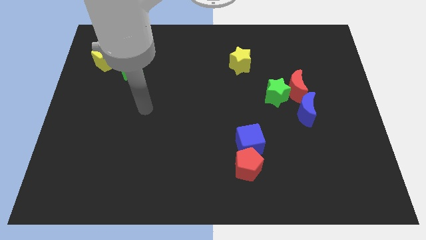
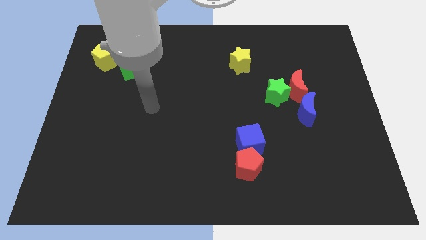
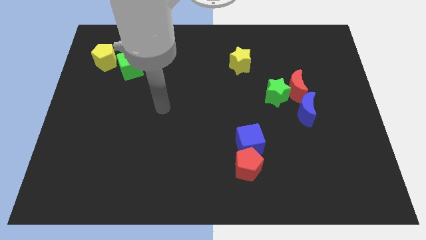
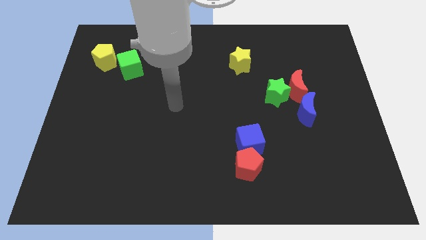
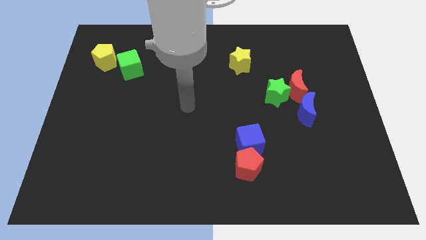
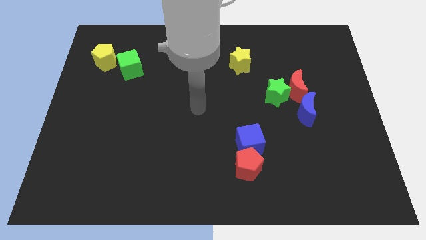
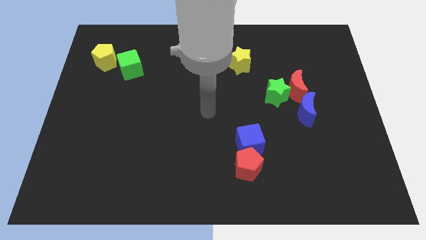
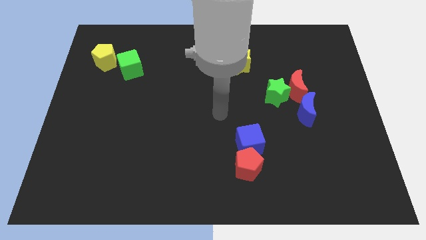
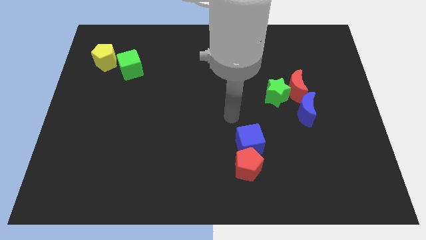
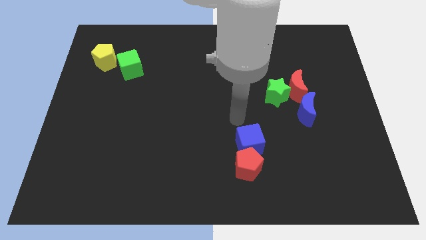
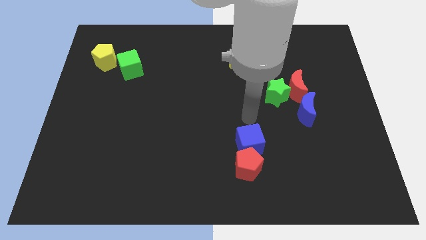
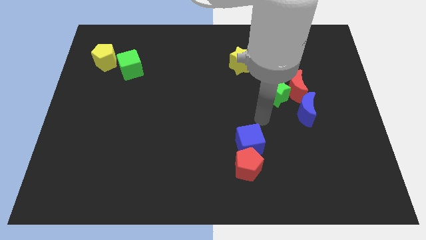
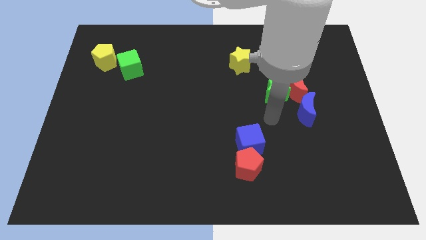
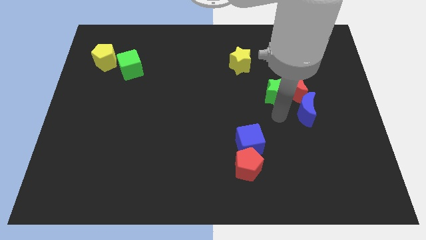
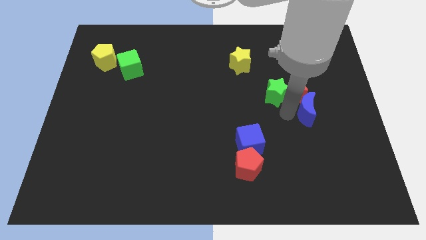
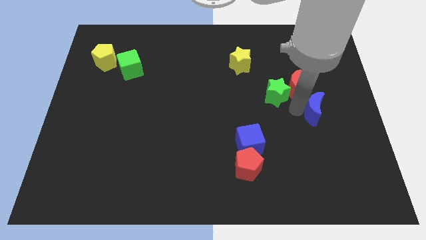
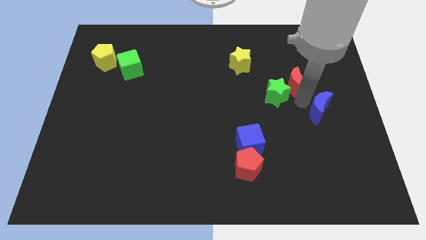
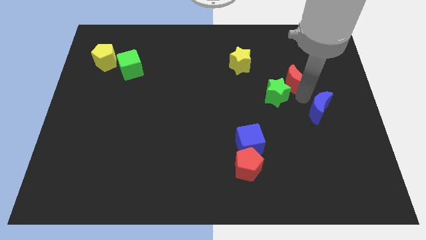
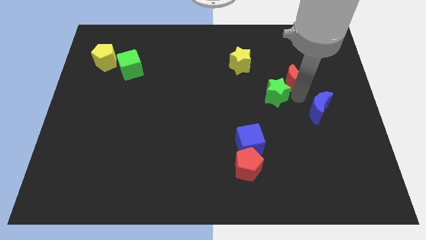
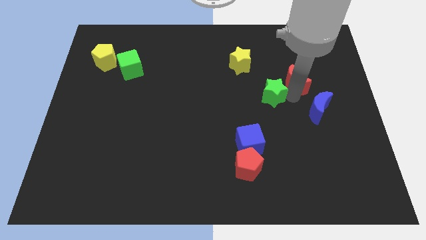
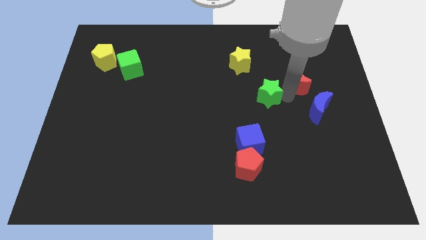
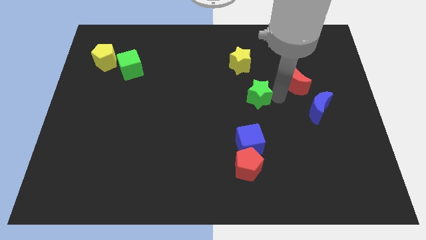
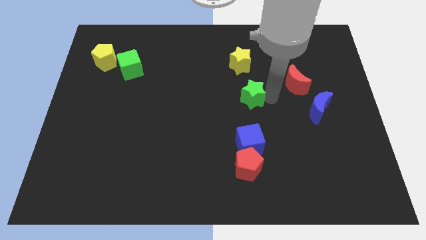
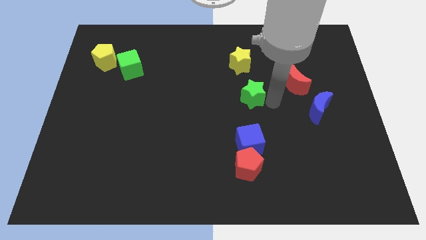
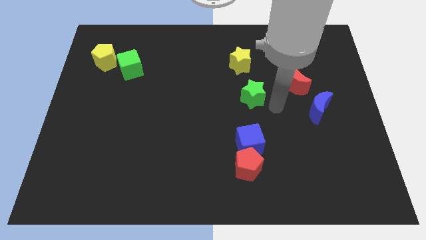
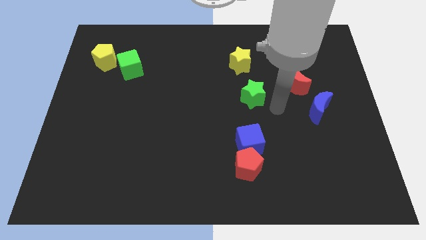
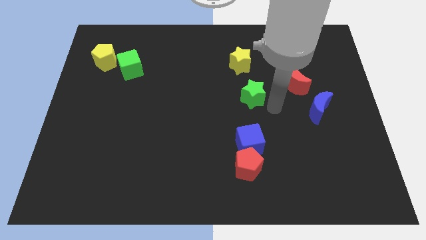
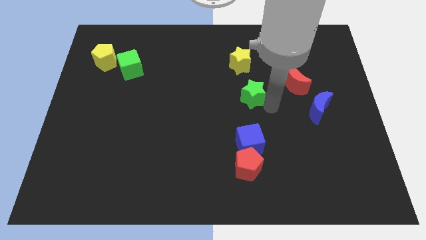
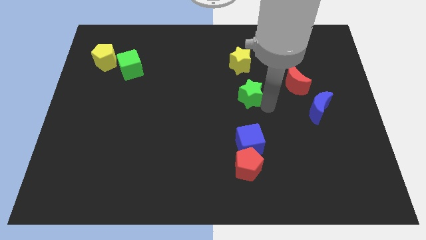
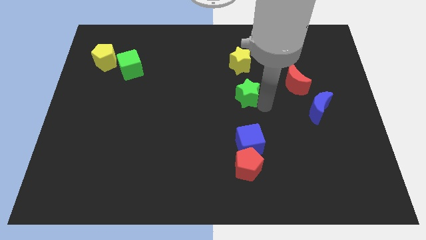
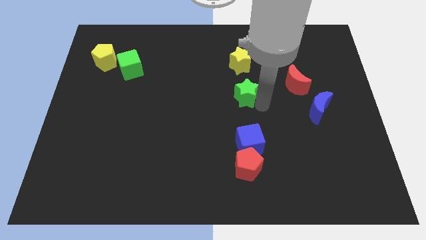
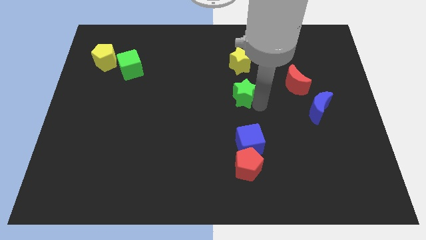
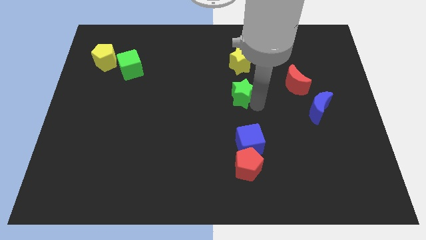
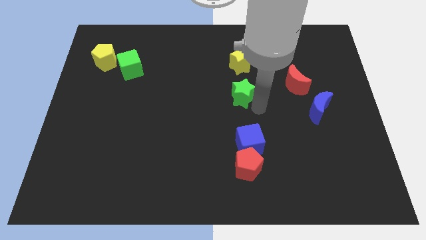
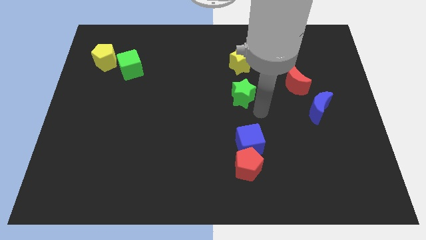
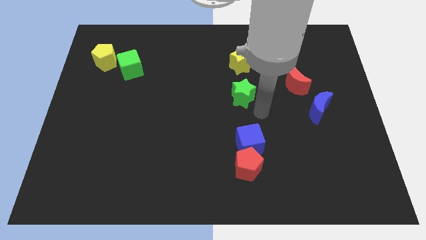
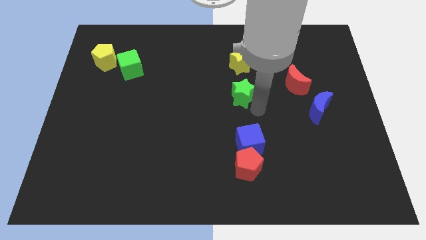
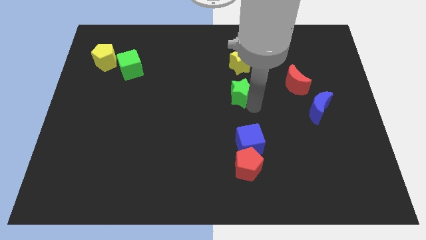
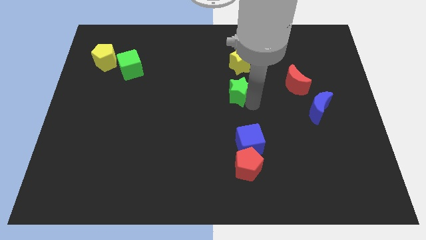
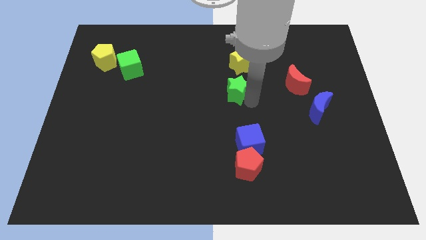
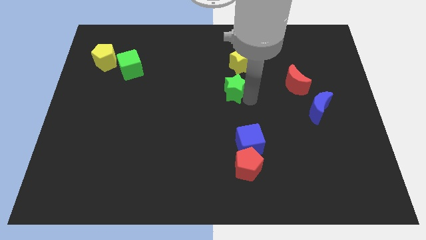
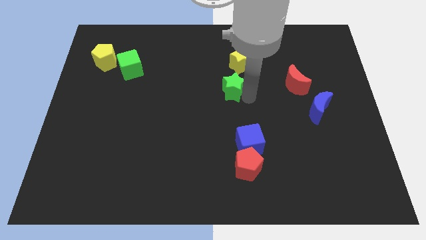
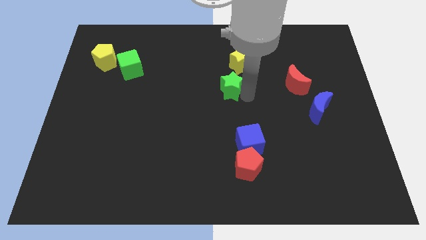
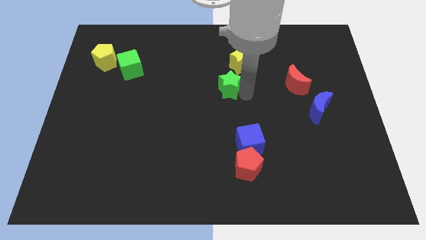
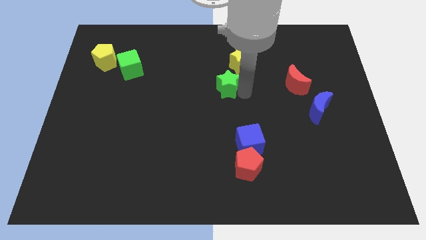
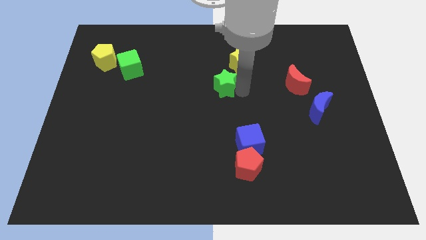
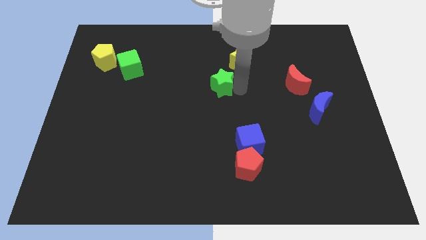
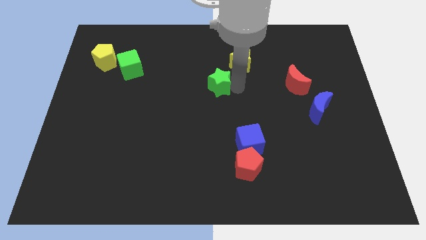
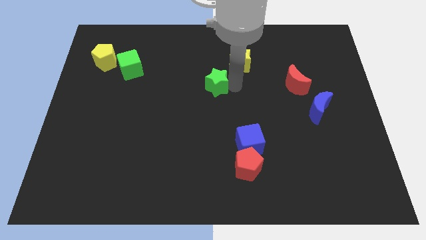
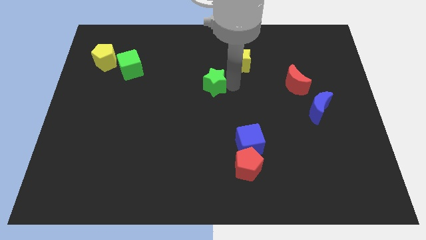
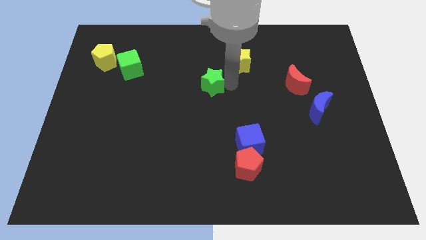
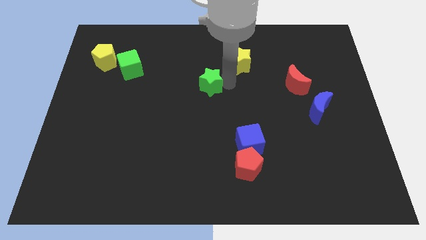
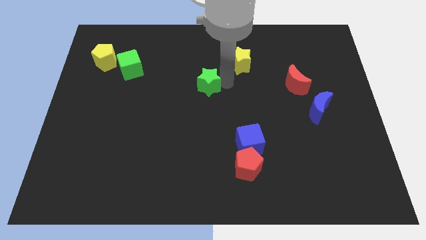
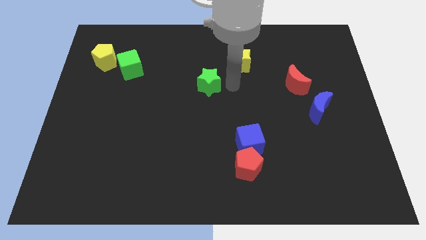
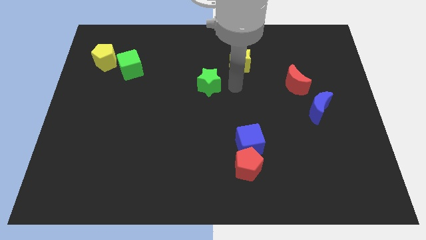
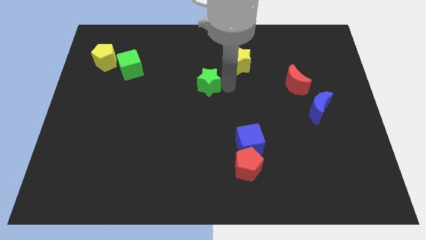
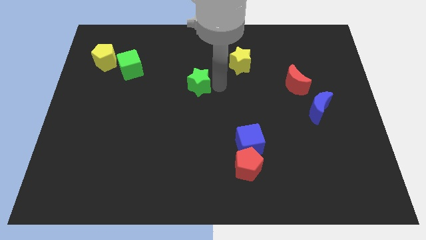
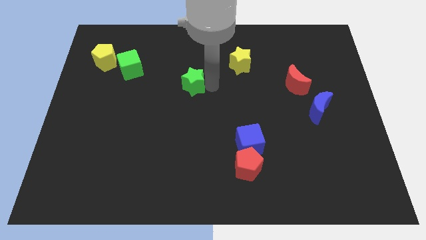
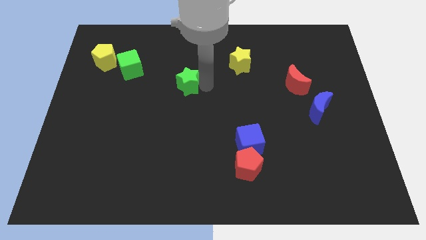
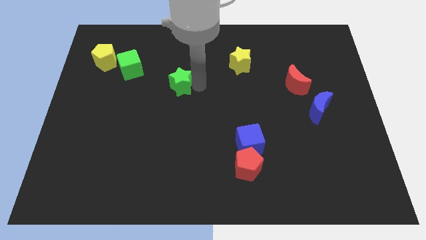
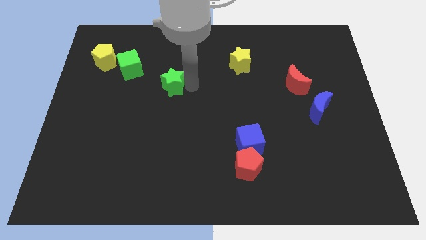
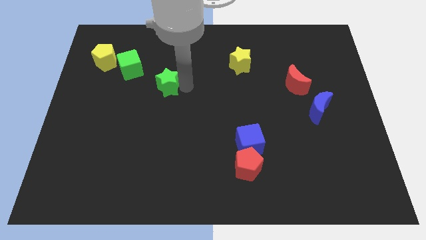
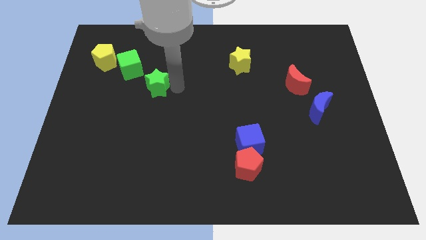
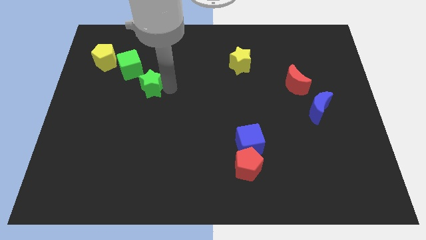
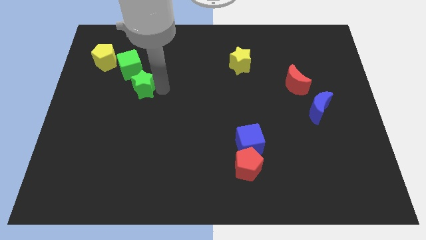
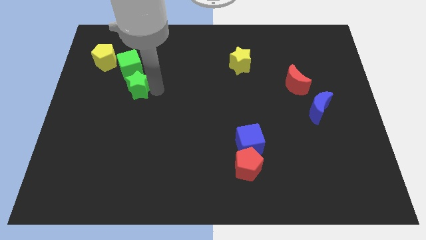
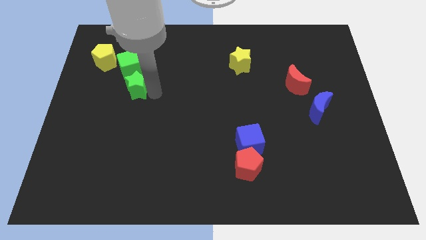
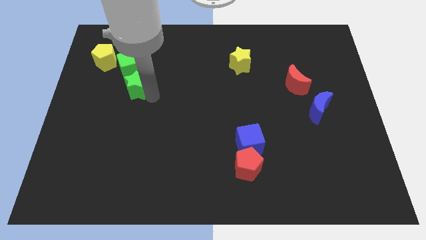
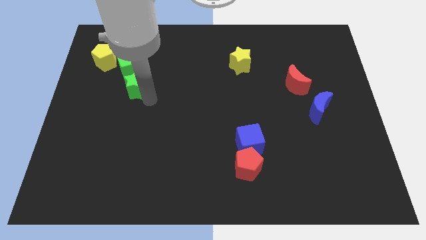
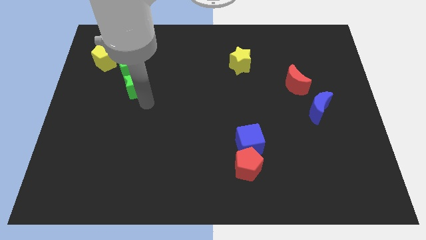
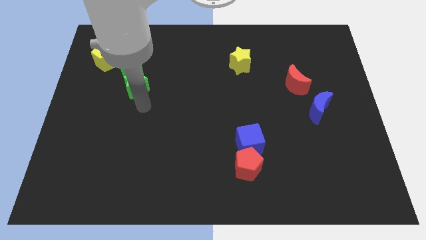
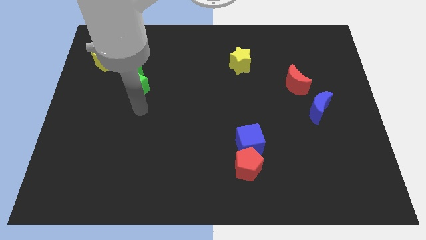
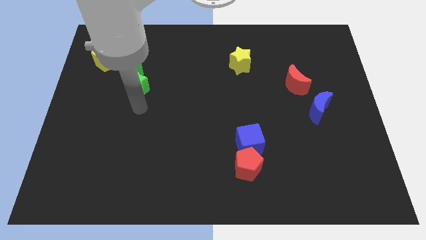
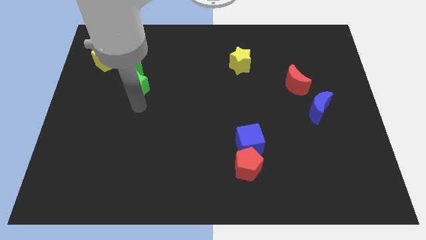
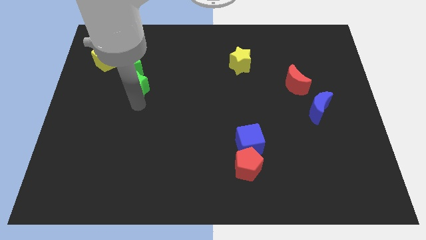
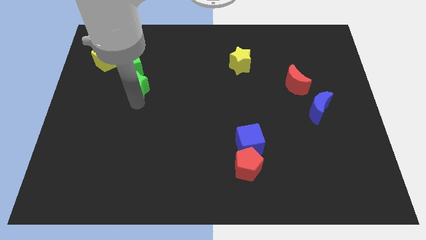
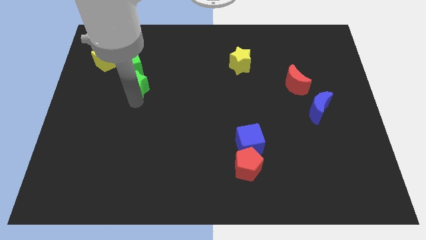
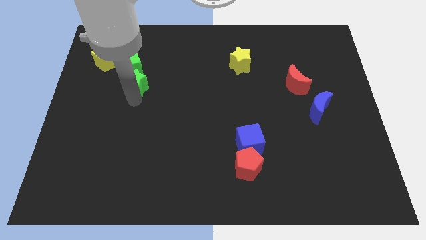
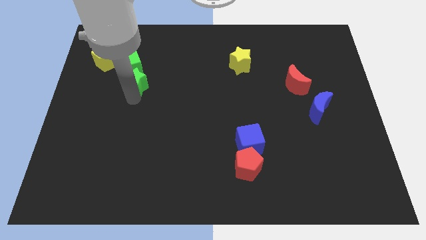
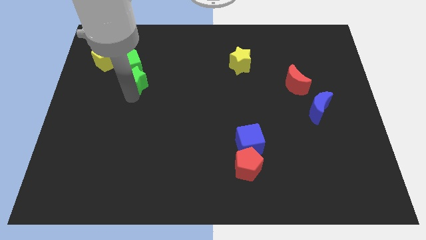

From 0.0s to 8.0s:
move the green star next to the green cube
